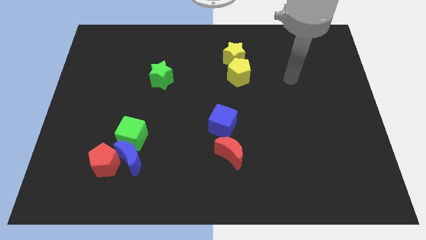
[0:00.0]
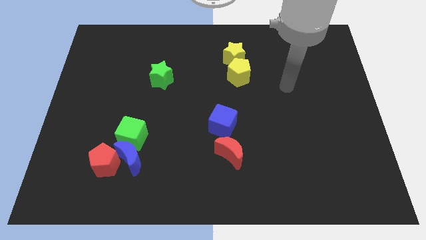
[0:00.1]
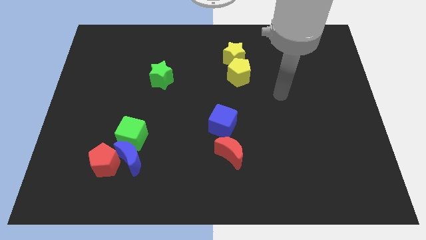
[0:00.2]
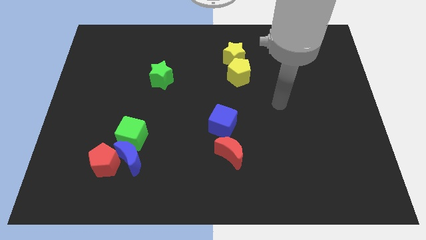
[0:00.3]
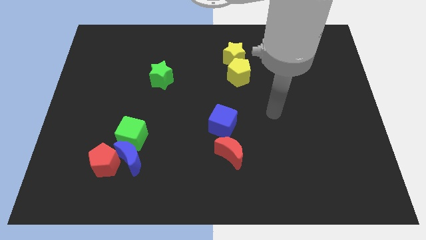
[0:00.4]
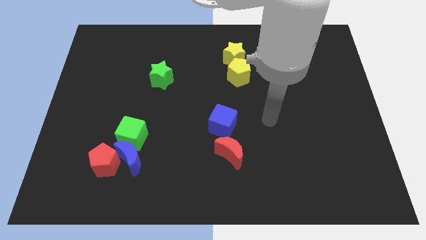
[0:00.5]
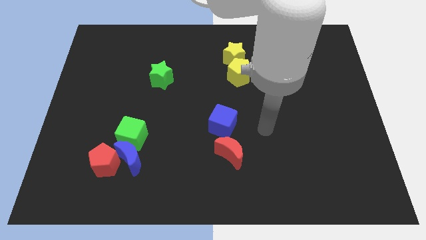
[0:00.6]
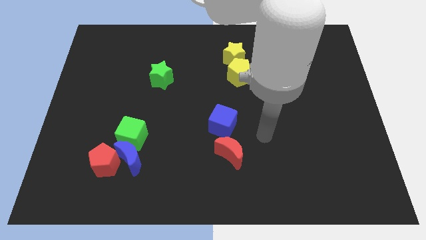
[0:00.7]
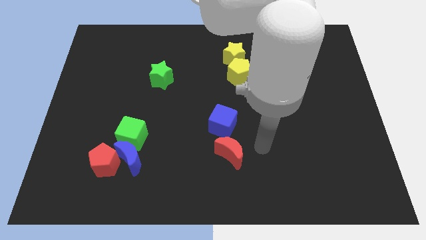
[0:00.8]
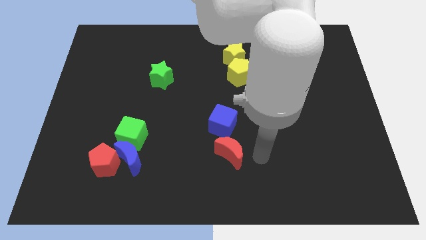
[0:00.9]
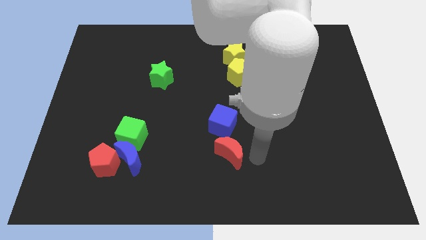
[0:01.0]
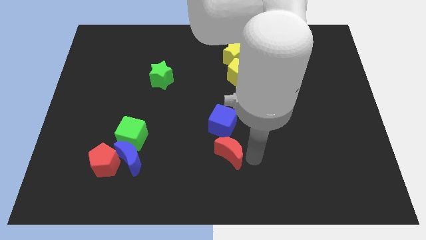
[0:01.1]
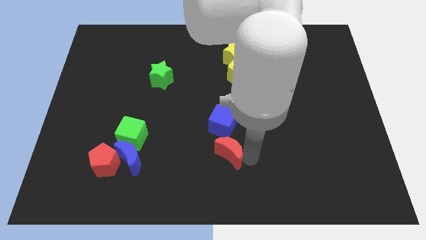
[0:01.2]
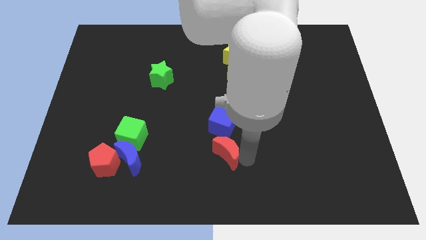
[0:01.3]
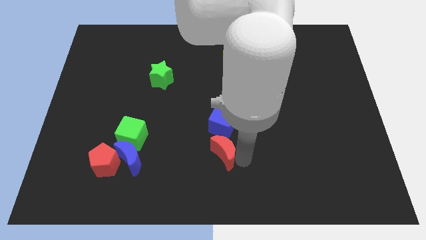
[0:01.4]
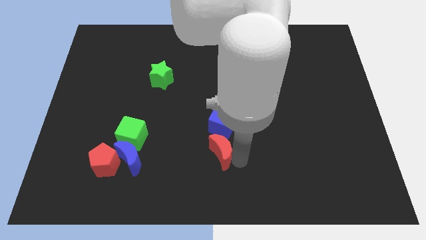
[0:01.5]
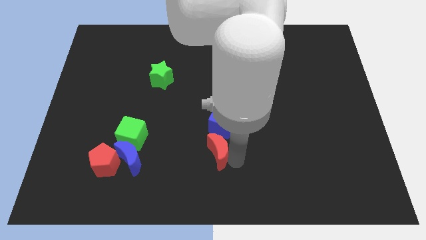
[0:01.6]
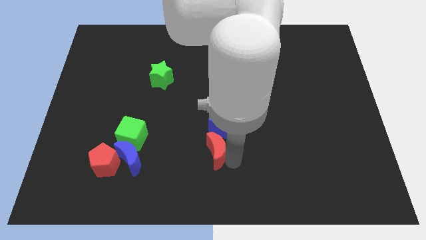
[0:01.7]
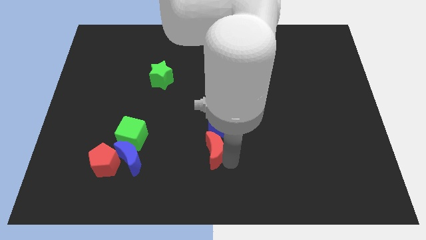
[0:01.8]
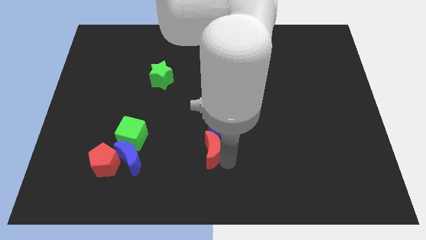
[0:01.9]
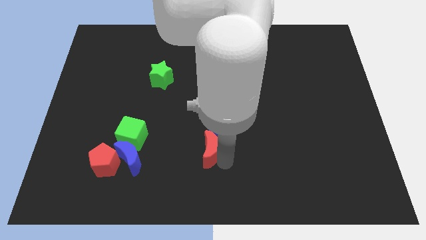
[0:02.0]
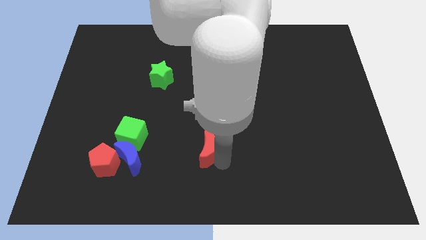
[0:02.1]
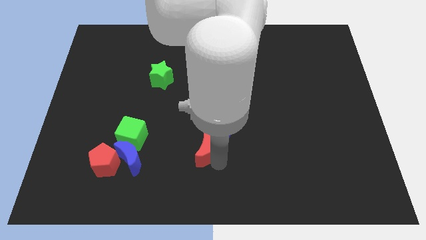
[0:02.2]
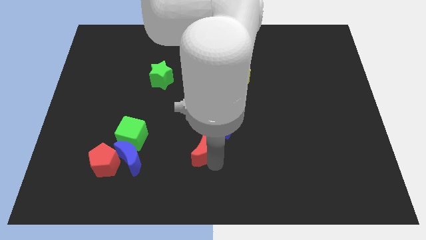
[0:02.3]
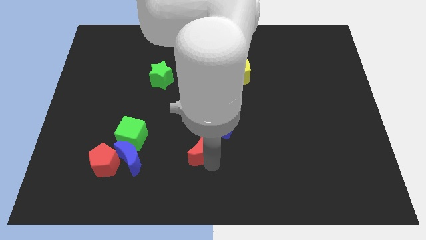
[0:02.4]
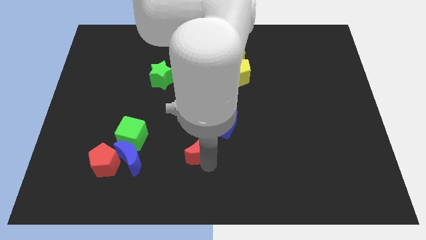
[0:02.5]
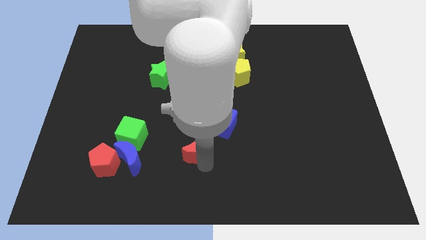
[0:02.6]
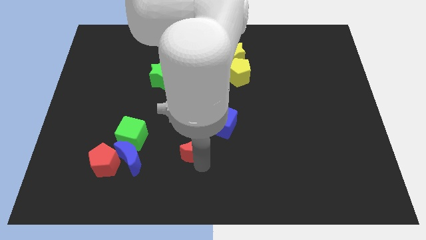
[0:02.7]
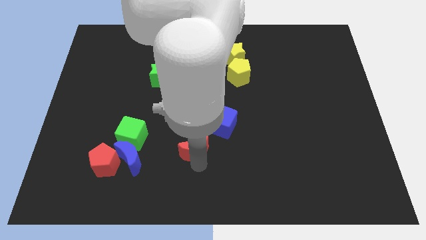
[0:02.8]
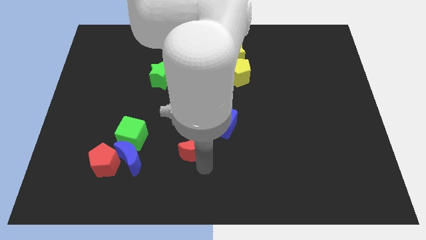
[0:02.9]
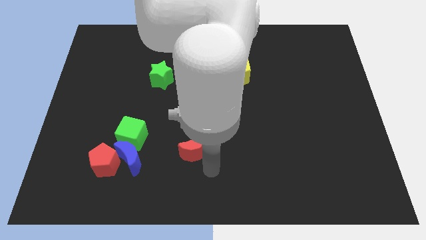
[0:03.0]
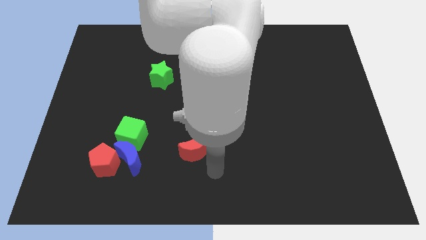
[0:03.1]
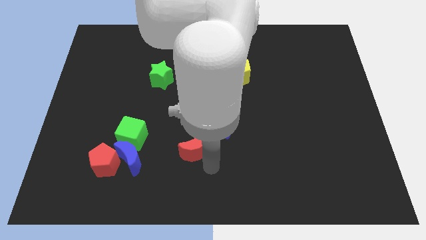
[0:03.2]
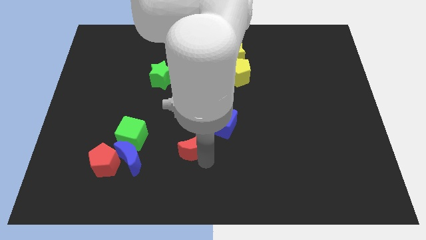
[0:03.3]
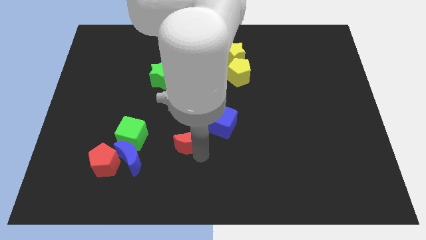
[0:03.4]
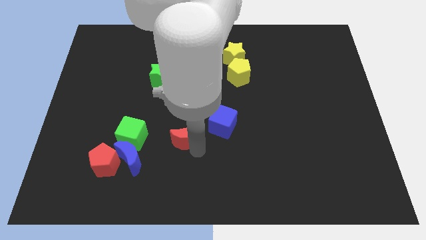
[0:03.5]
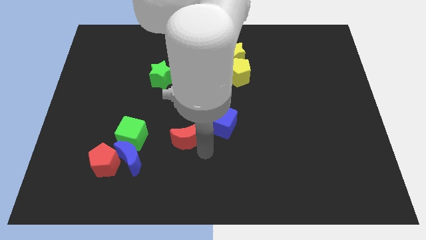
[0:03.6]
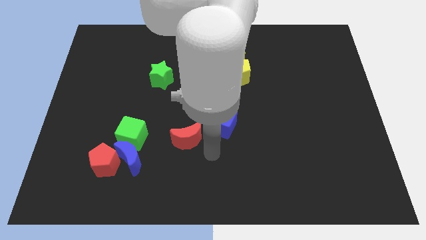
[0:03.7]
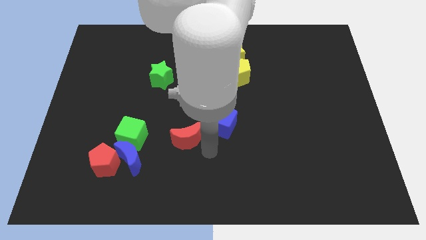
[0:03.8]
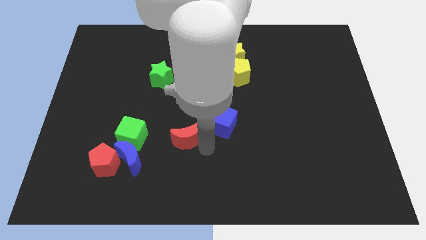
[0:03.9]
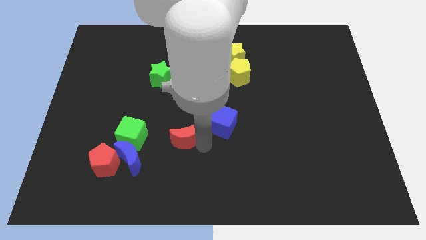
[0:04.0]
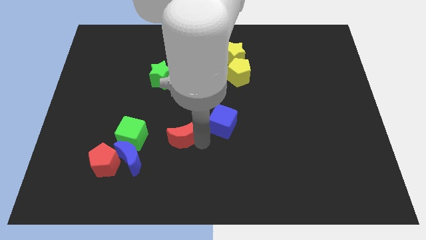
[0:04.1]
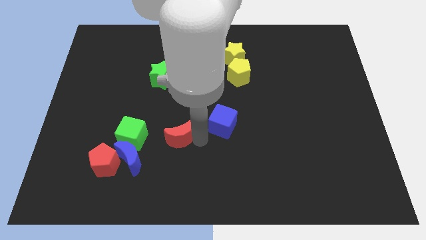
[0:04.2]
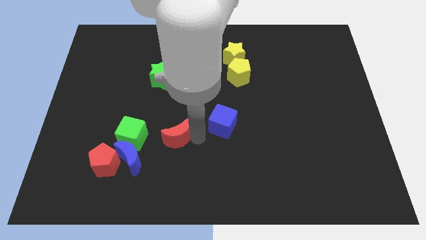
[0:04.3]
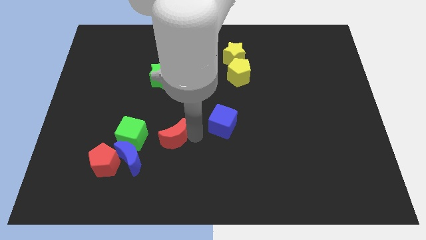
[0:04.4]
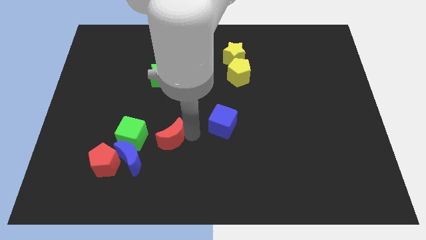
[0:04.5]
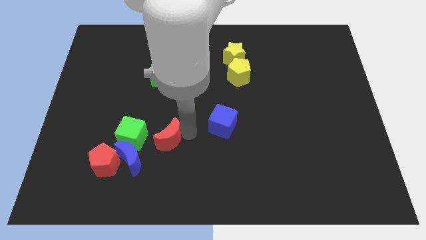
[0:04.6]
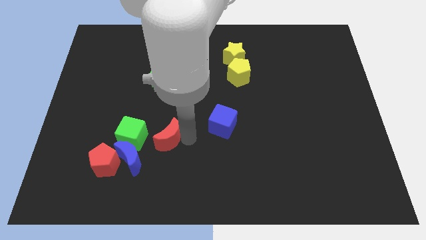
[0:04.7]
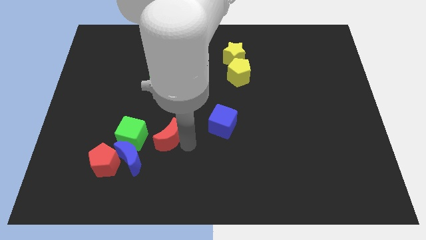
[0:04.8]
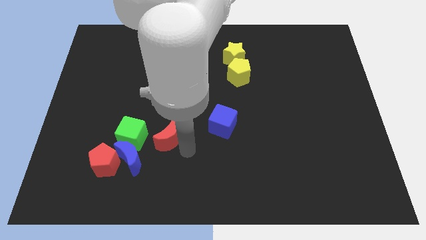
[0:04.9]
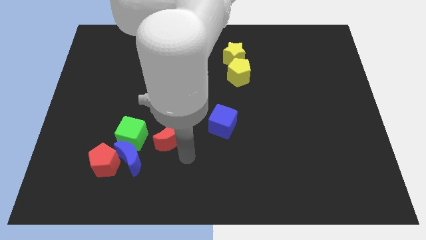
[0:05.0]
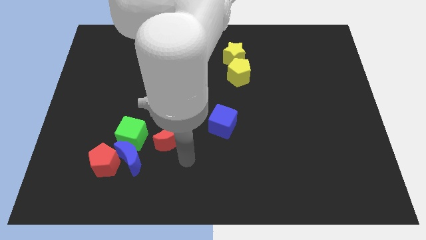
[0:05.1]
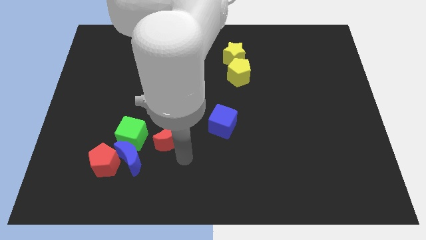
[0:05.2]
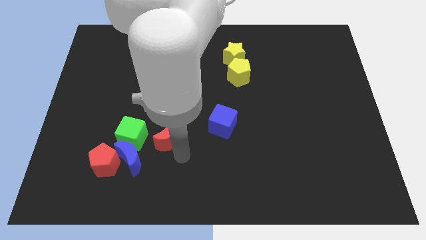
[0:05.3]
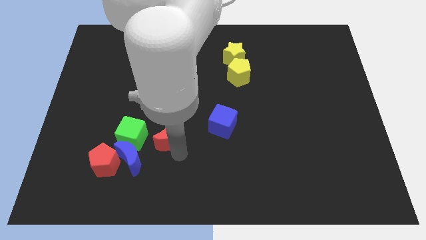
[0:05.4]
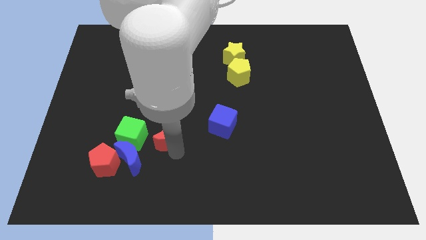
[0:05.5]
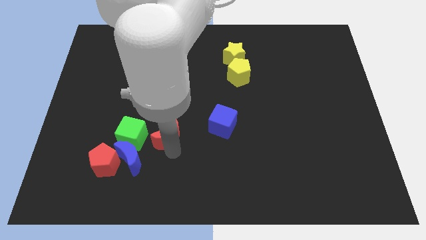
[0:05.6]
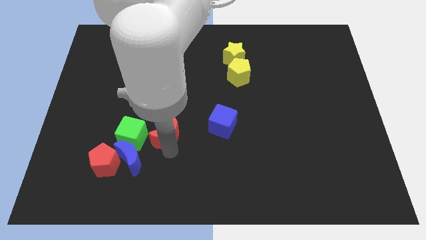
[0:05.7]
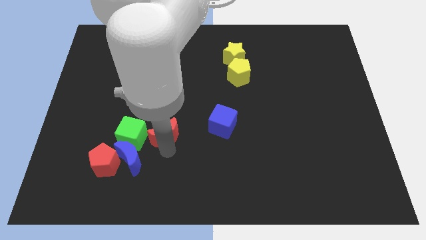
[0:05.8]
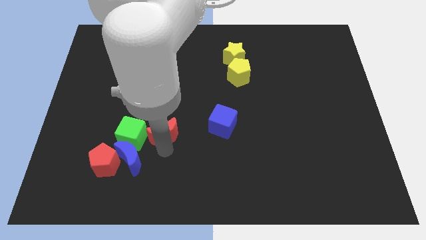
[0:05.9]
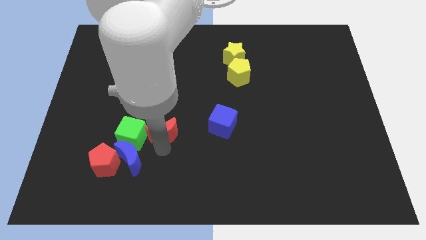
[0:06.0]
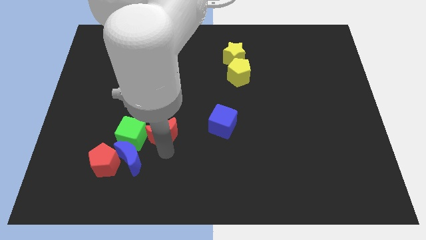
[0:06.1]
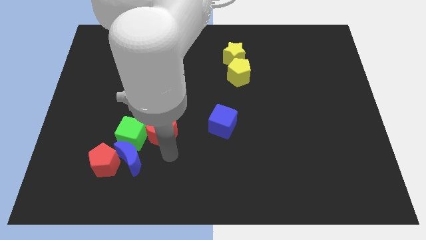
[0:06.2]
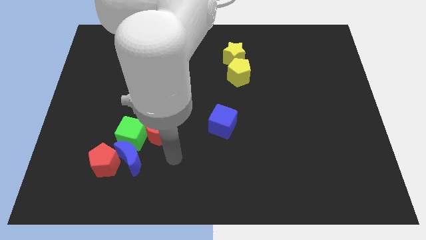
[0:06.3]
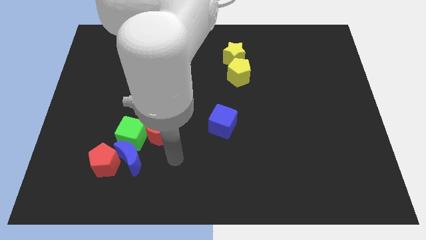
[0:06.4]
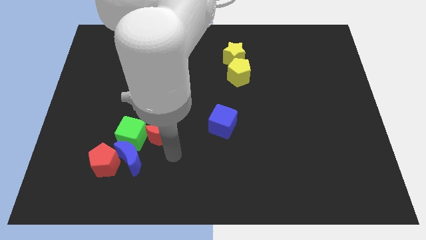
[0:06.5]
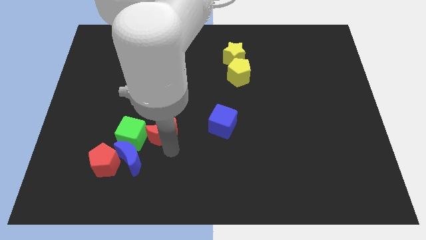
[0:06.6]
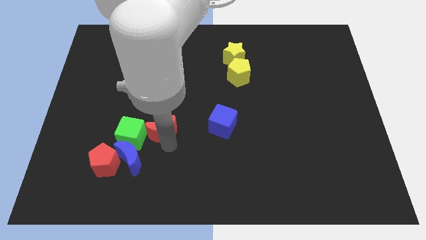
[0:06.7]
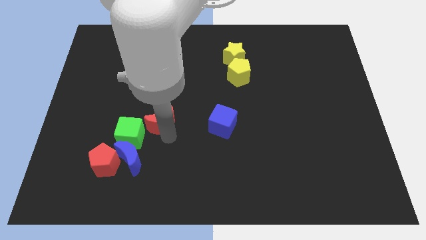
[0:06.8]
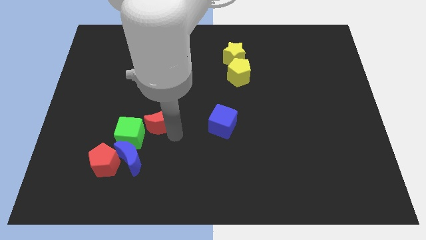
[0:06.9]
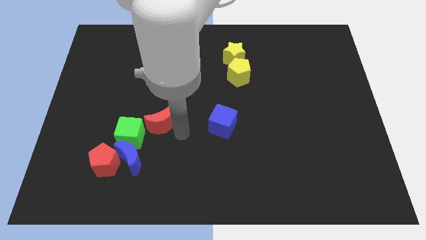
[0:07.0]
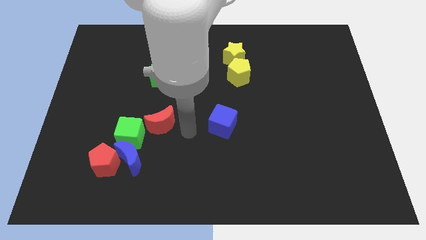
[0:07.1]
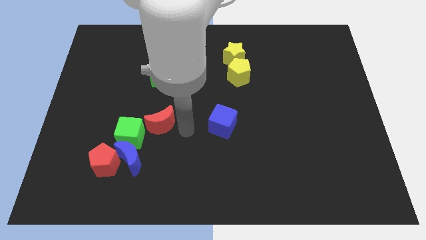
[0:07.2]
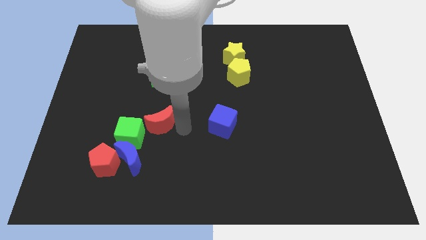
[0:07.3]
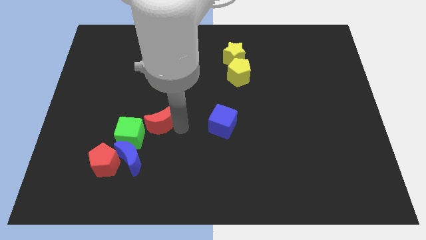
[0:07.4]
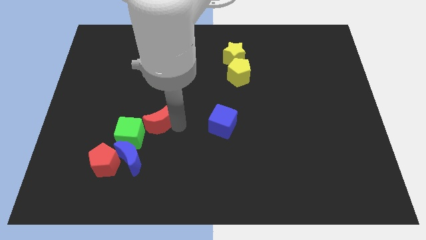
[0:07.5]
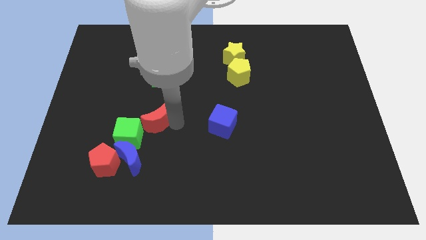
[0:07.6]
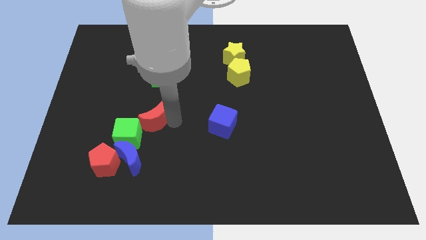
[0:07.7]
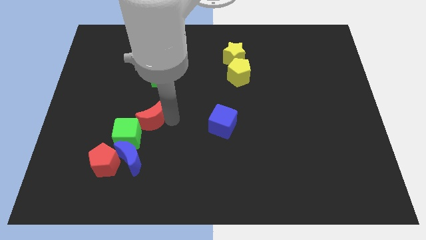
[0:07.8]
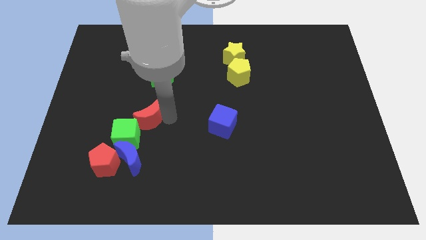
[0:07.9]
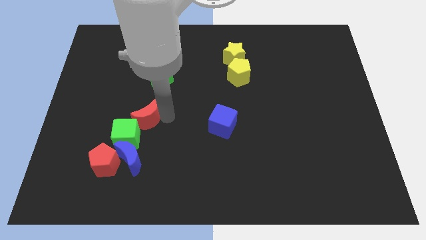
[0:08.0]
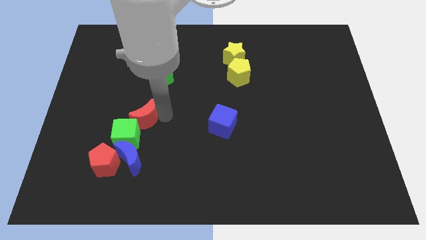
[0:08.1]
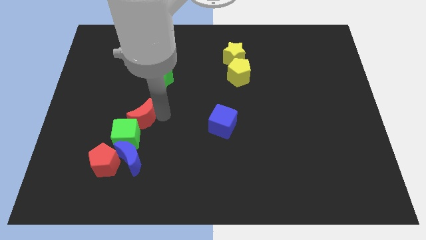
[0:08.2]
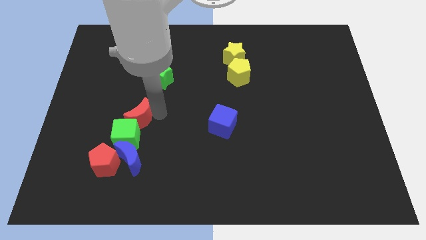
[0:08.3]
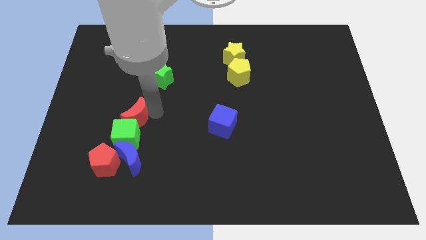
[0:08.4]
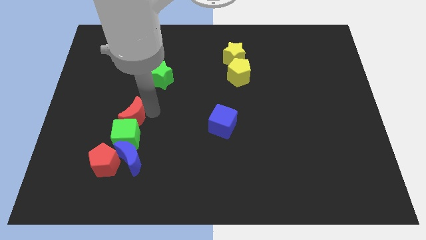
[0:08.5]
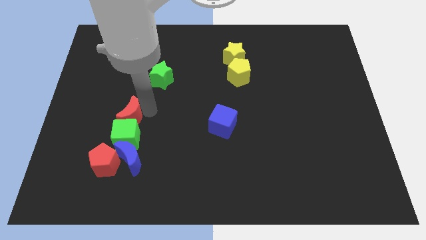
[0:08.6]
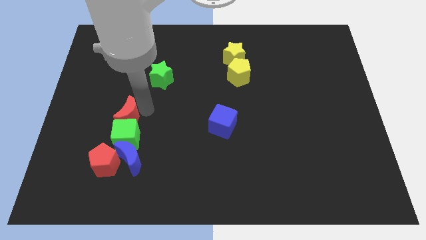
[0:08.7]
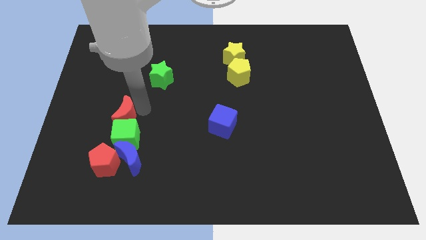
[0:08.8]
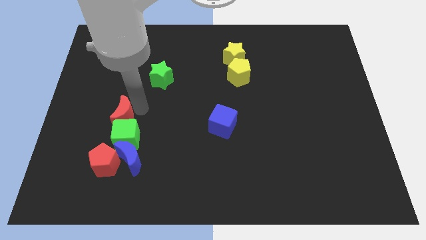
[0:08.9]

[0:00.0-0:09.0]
move the red moon left
